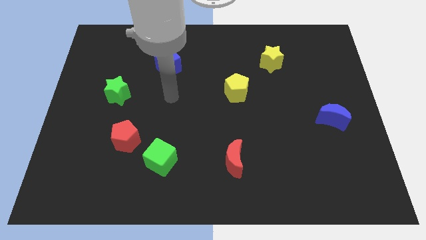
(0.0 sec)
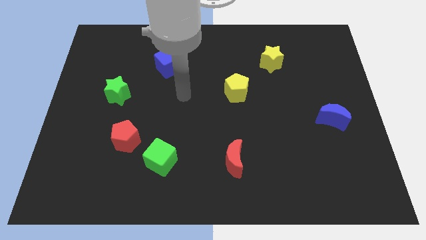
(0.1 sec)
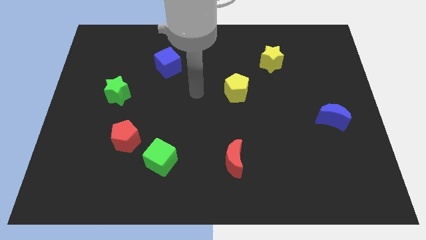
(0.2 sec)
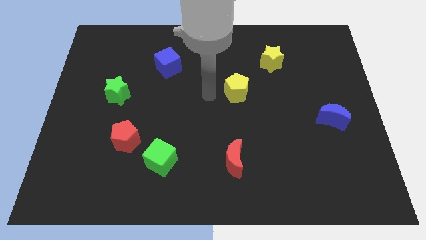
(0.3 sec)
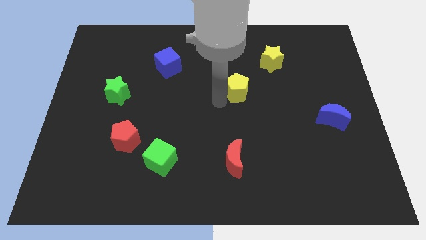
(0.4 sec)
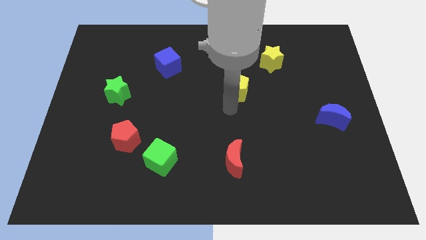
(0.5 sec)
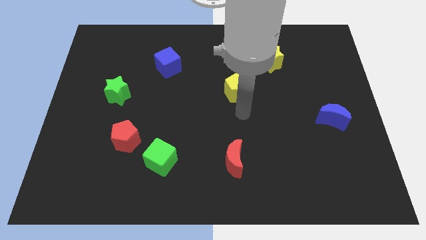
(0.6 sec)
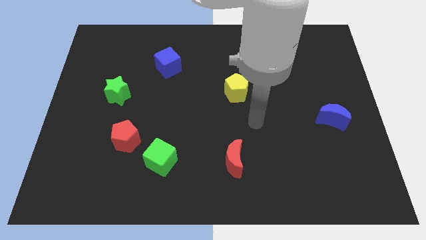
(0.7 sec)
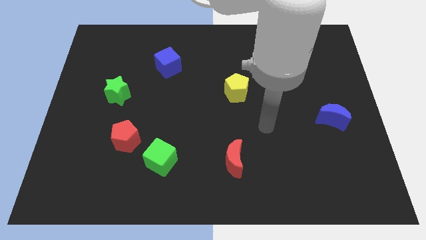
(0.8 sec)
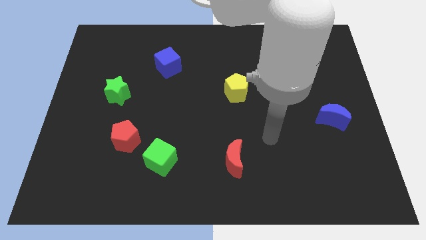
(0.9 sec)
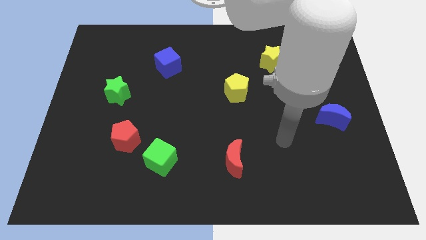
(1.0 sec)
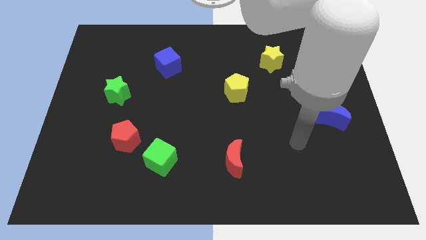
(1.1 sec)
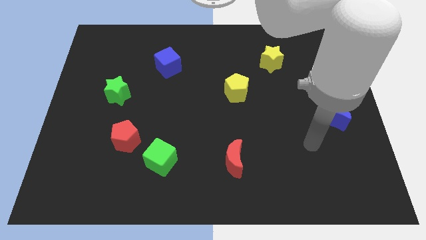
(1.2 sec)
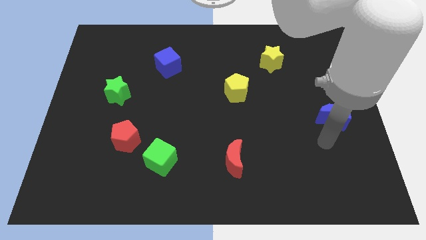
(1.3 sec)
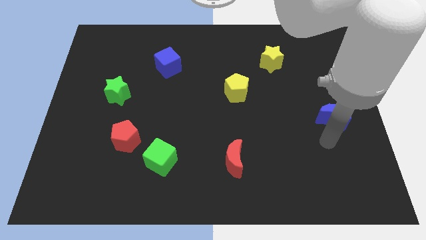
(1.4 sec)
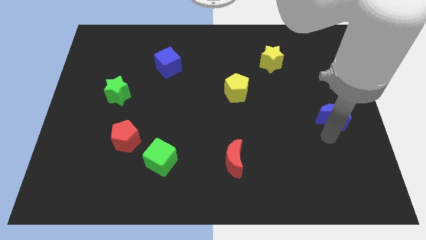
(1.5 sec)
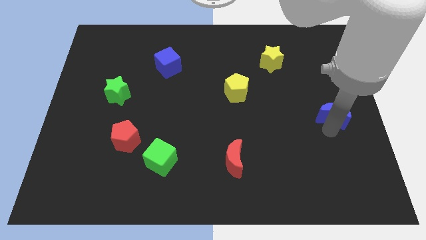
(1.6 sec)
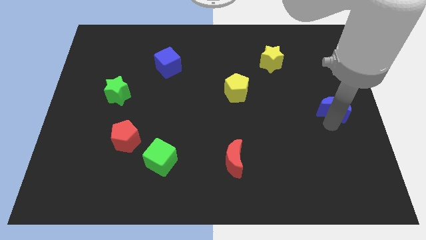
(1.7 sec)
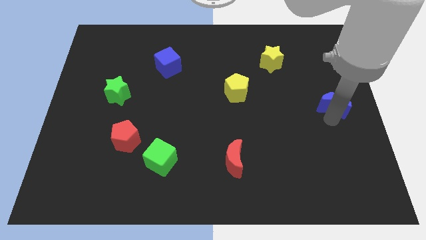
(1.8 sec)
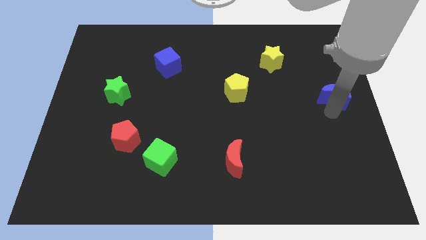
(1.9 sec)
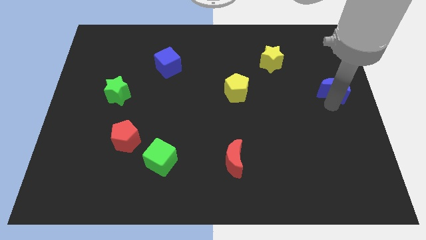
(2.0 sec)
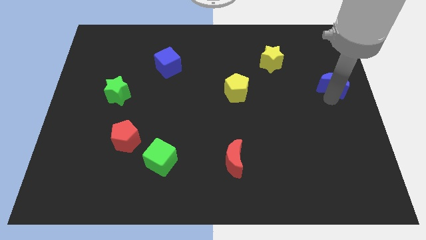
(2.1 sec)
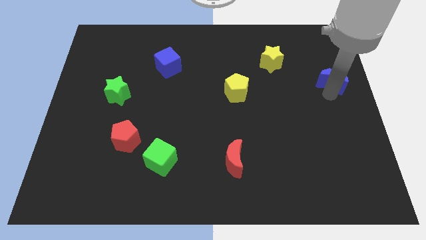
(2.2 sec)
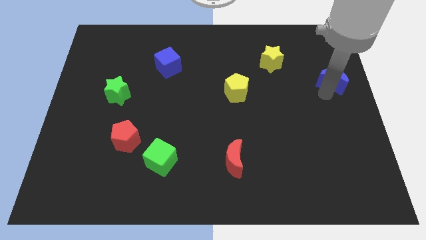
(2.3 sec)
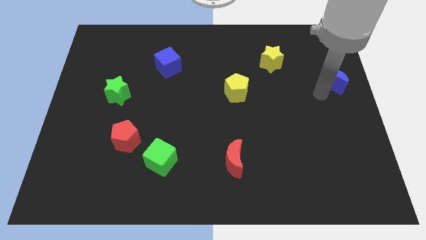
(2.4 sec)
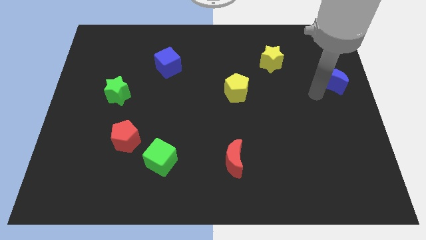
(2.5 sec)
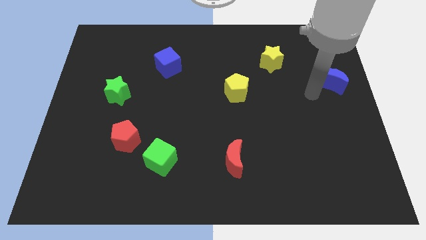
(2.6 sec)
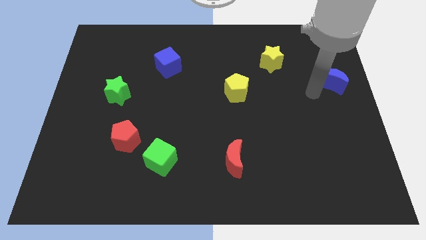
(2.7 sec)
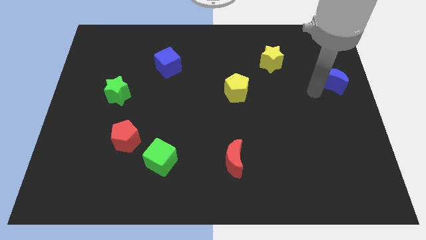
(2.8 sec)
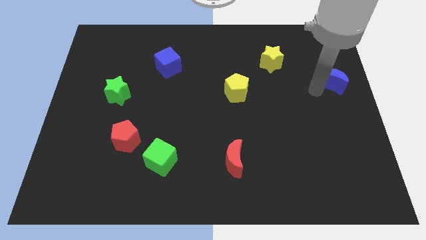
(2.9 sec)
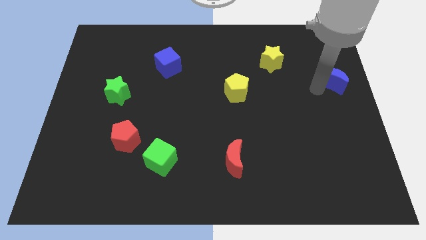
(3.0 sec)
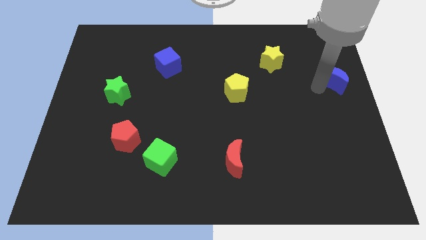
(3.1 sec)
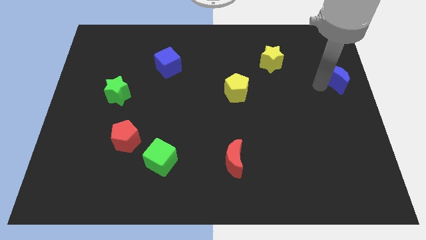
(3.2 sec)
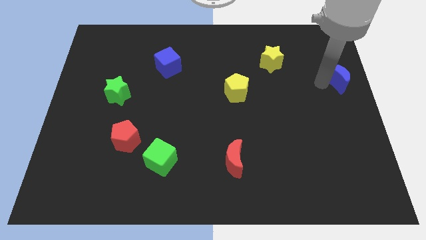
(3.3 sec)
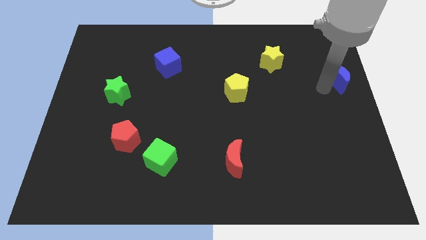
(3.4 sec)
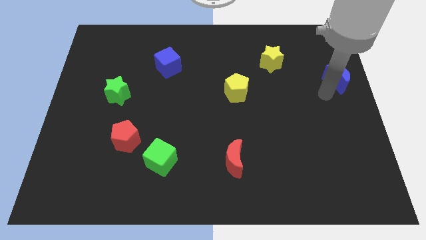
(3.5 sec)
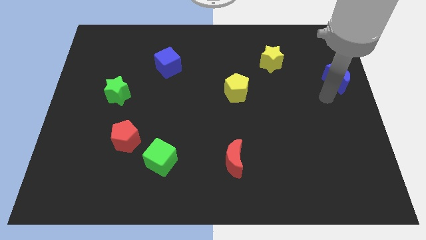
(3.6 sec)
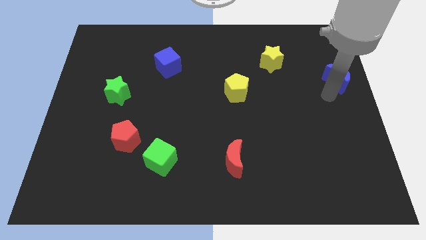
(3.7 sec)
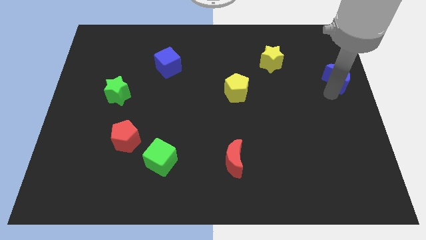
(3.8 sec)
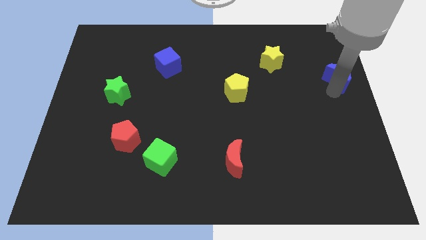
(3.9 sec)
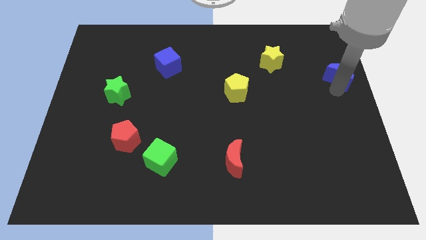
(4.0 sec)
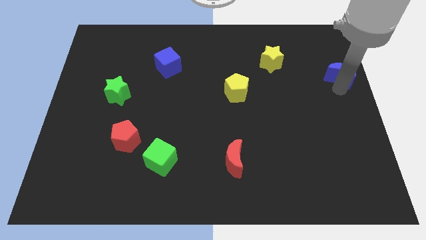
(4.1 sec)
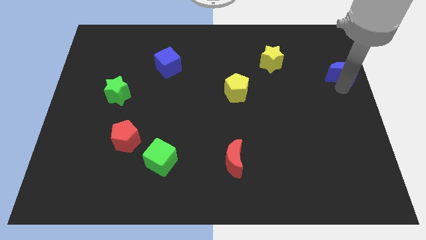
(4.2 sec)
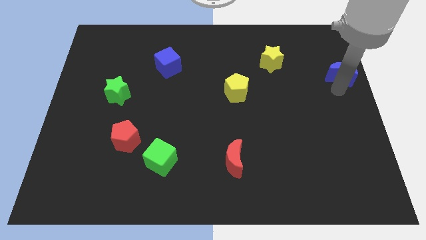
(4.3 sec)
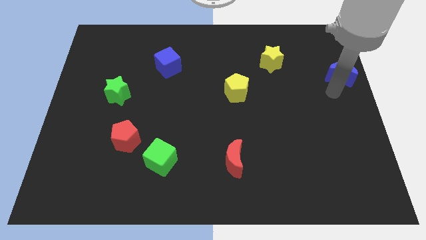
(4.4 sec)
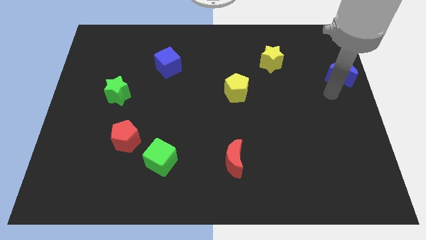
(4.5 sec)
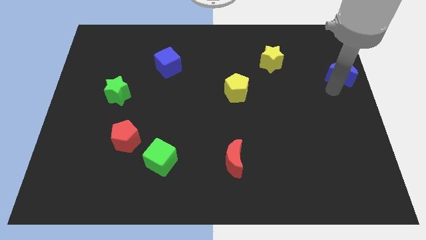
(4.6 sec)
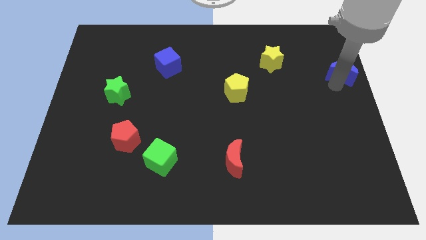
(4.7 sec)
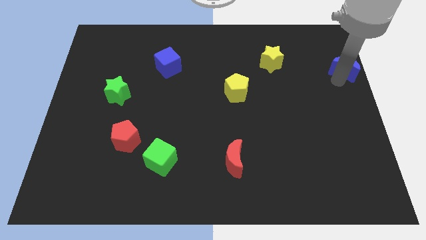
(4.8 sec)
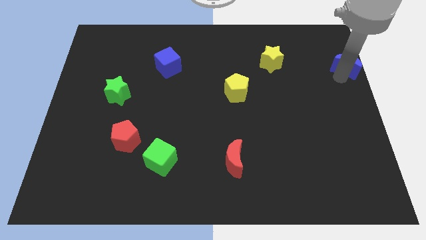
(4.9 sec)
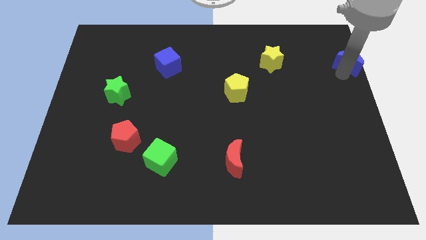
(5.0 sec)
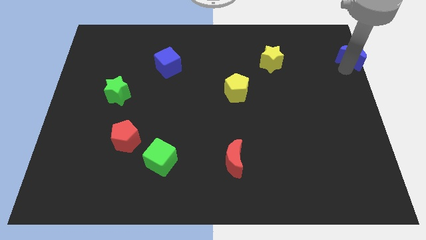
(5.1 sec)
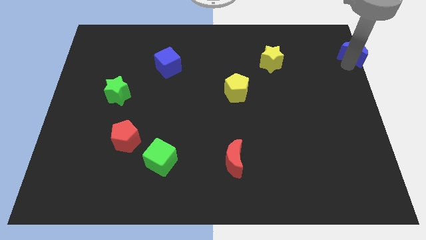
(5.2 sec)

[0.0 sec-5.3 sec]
move the blue moon to the top right

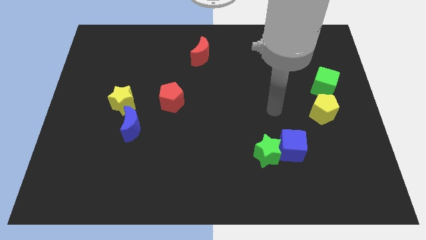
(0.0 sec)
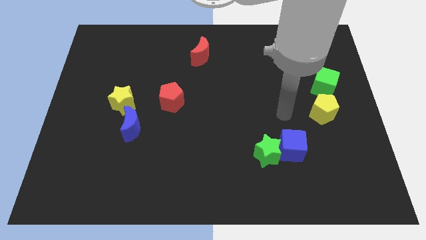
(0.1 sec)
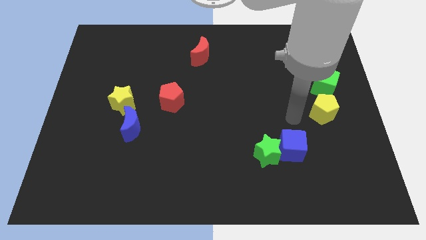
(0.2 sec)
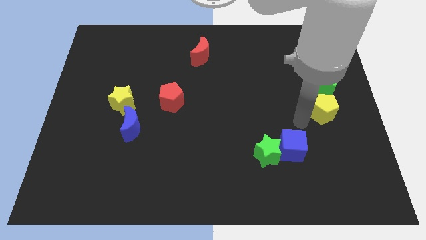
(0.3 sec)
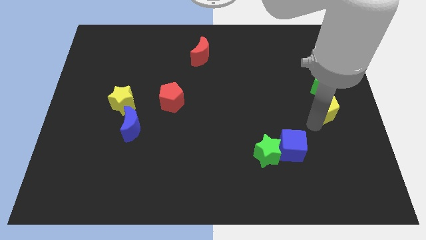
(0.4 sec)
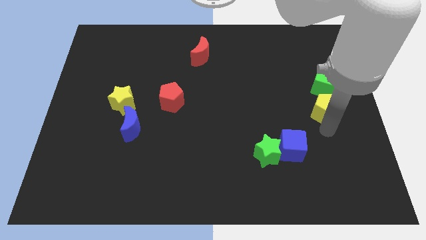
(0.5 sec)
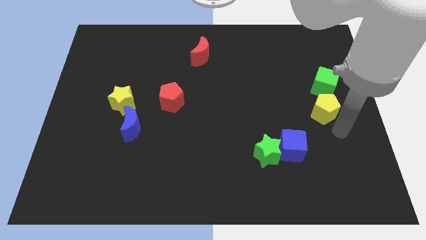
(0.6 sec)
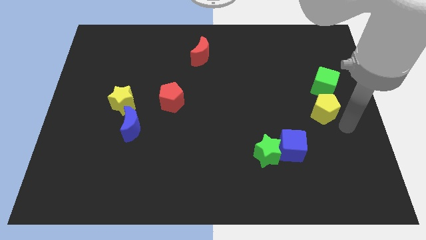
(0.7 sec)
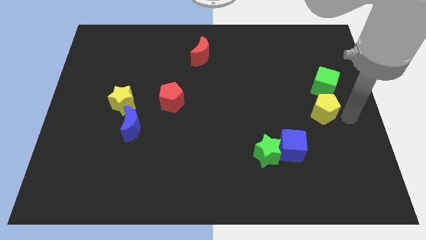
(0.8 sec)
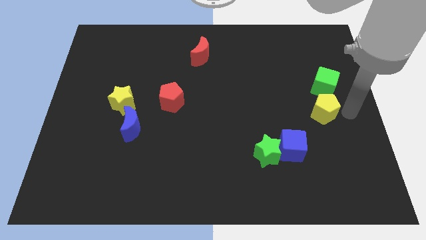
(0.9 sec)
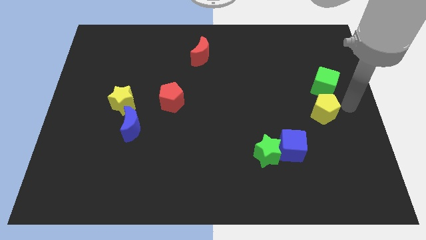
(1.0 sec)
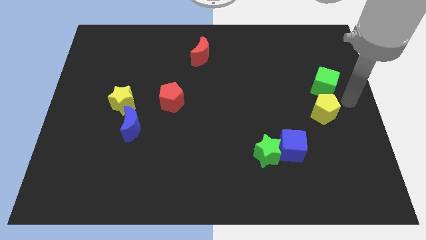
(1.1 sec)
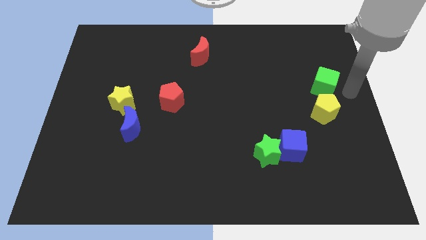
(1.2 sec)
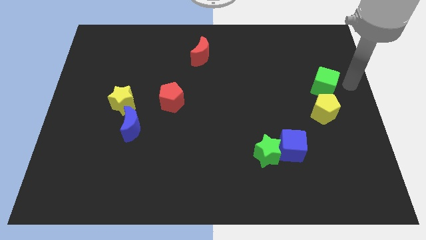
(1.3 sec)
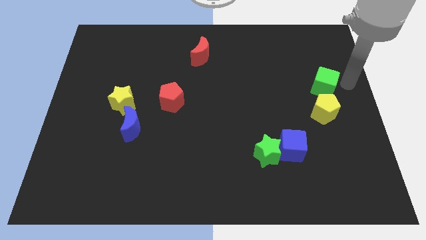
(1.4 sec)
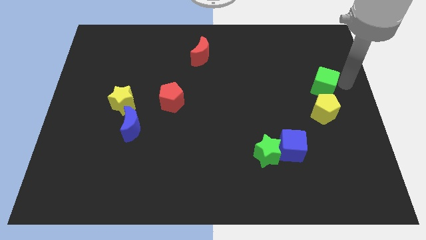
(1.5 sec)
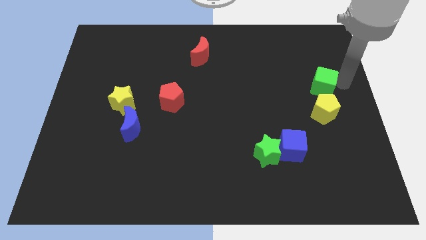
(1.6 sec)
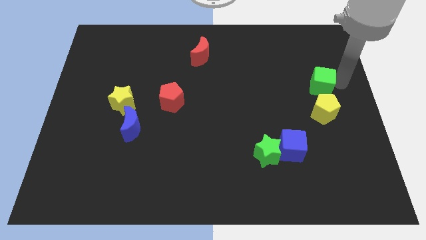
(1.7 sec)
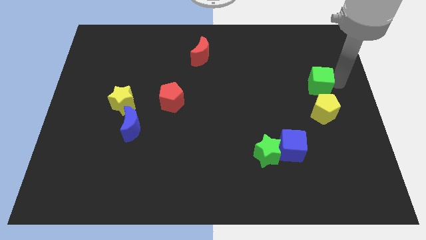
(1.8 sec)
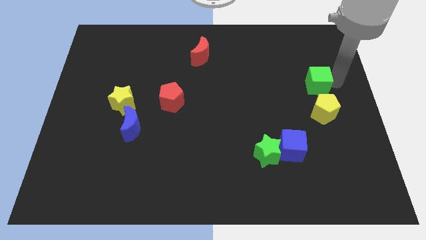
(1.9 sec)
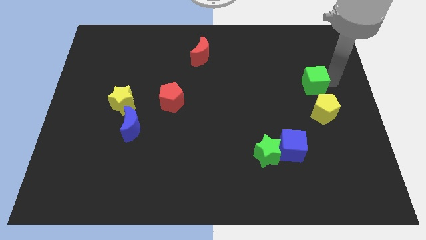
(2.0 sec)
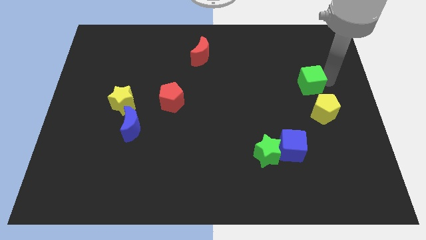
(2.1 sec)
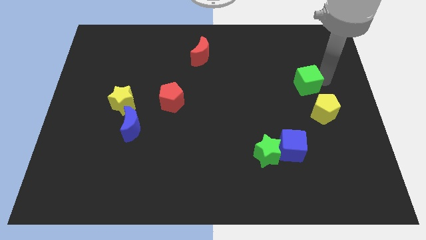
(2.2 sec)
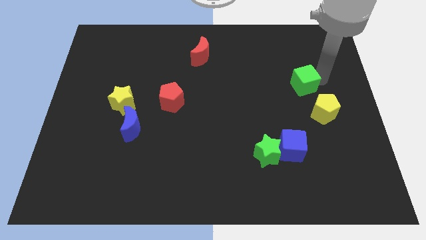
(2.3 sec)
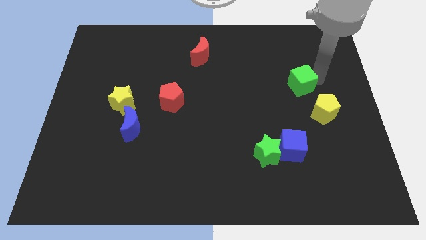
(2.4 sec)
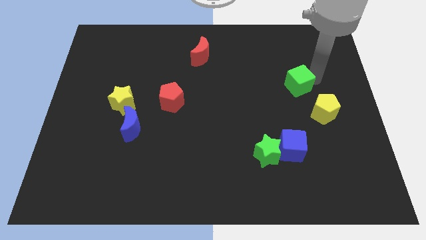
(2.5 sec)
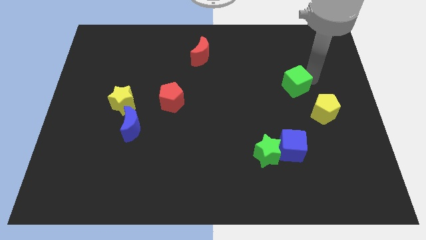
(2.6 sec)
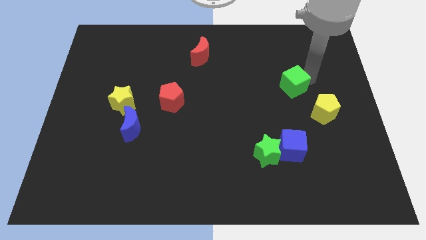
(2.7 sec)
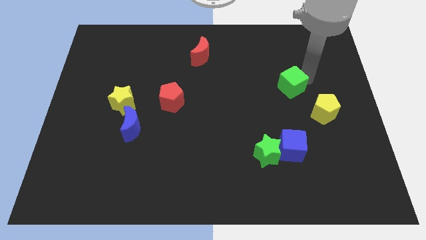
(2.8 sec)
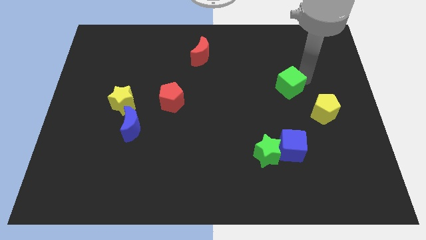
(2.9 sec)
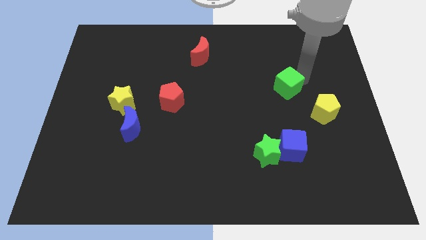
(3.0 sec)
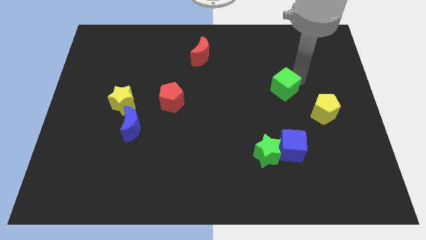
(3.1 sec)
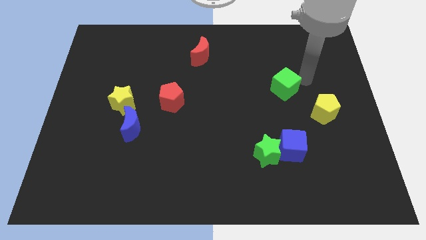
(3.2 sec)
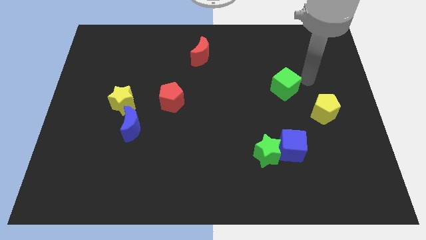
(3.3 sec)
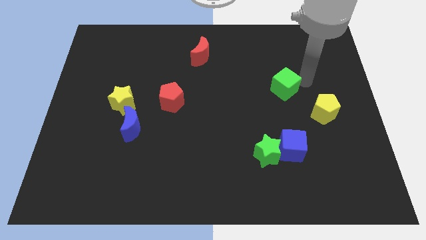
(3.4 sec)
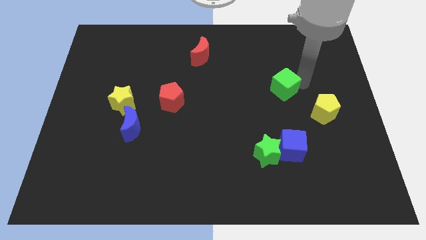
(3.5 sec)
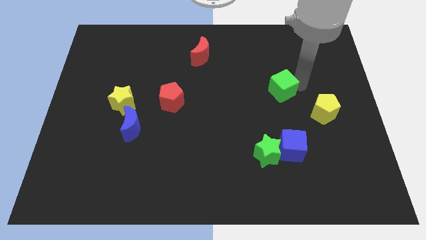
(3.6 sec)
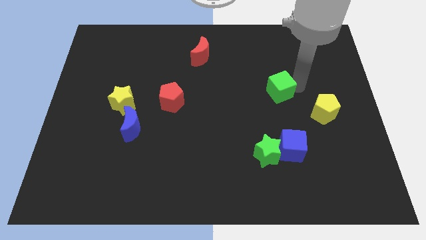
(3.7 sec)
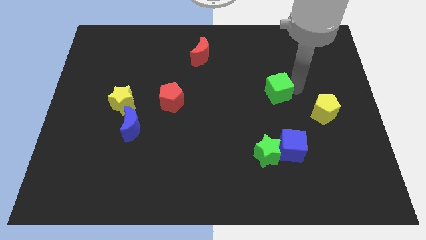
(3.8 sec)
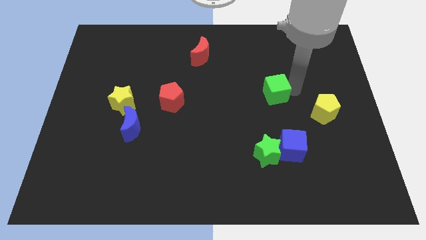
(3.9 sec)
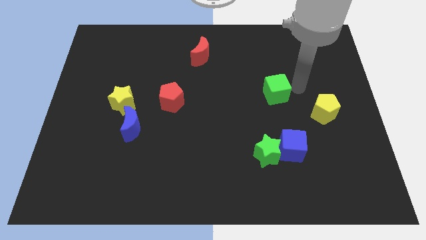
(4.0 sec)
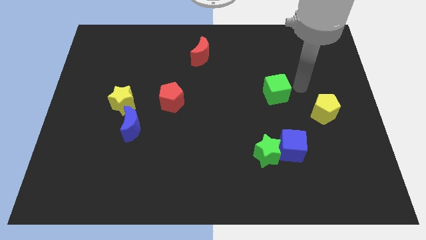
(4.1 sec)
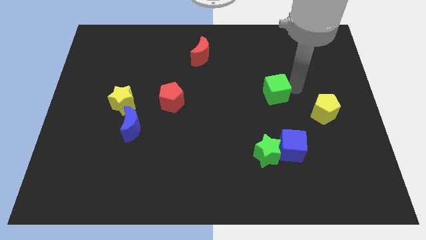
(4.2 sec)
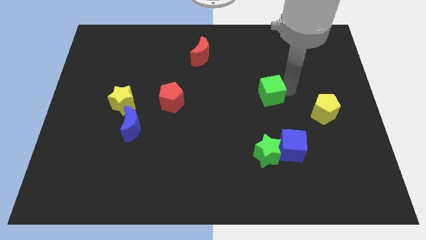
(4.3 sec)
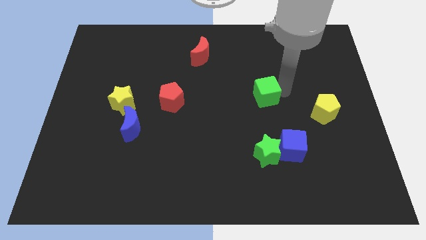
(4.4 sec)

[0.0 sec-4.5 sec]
slide the green cube to the center of the board
